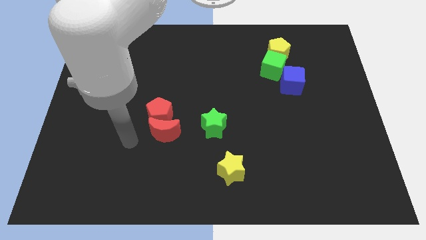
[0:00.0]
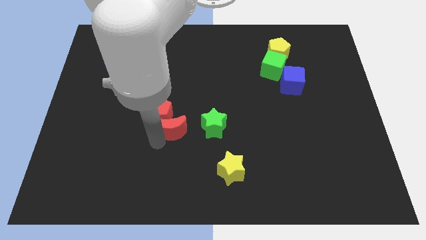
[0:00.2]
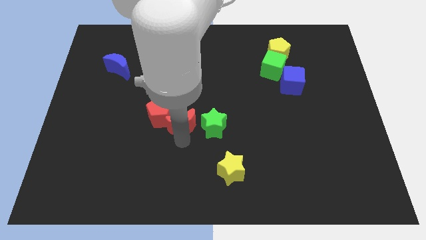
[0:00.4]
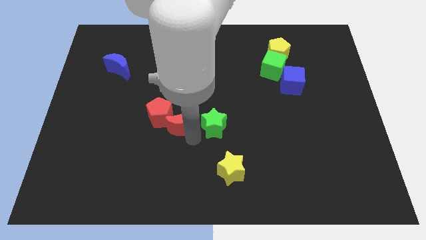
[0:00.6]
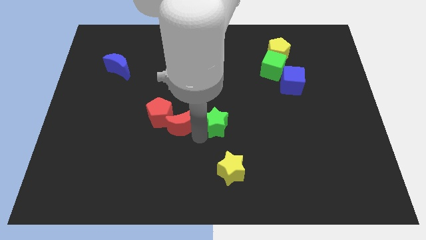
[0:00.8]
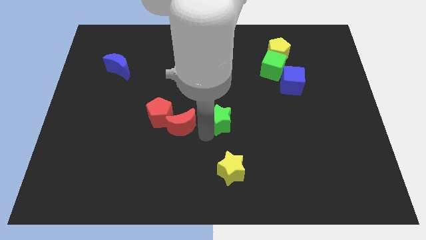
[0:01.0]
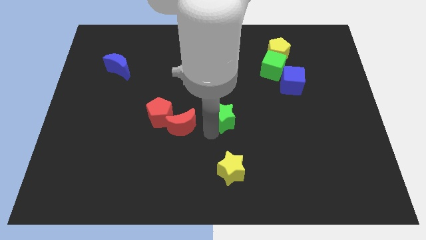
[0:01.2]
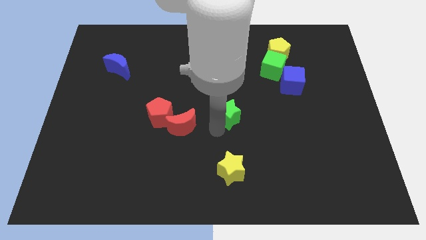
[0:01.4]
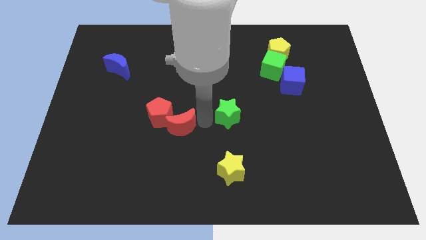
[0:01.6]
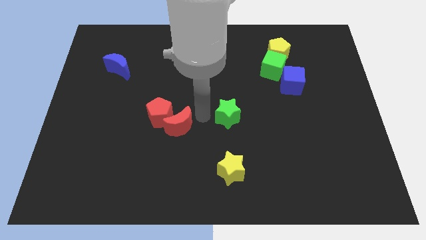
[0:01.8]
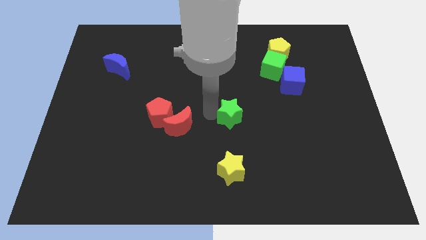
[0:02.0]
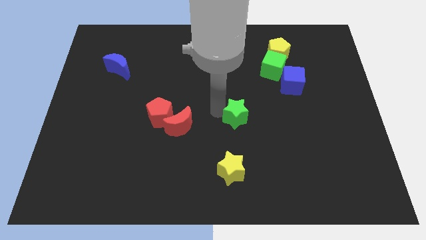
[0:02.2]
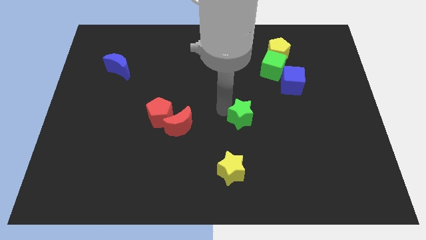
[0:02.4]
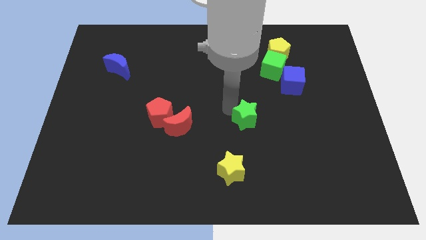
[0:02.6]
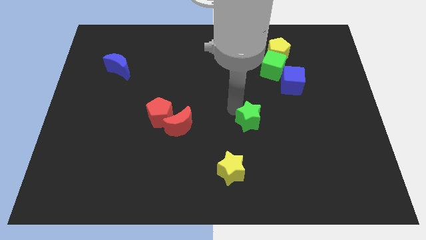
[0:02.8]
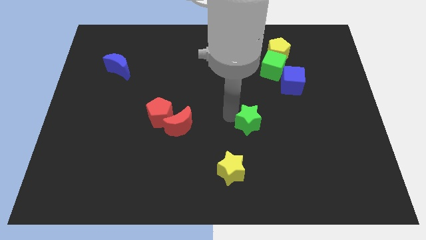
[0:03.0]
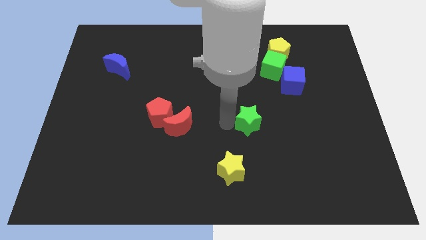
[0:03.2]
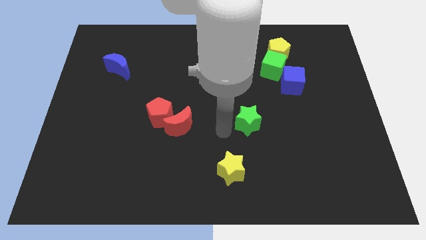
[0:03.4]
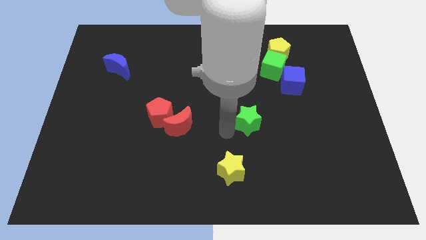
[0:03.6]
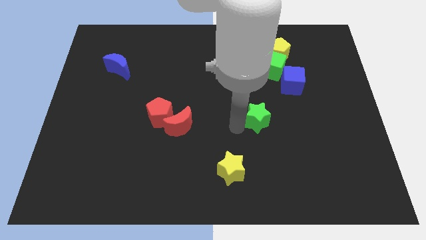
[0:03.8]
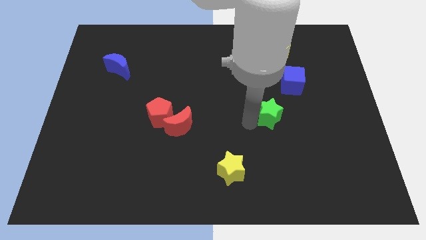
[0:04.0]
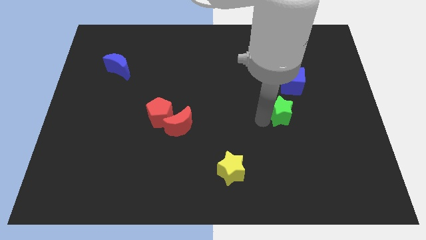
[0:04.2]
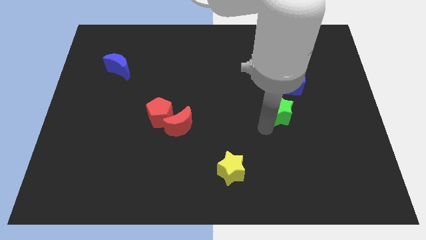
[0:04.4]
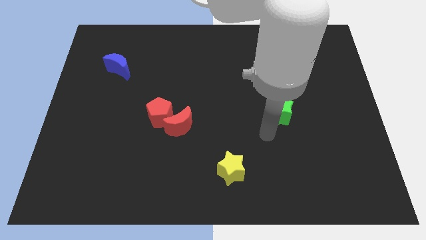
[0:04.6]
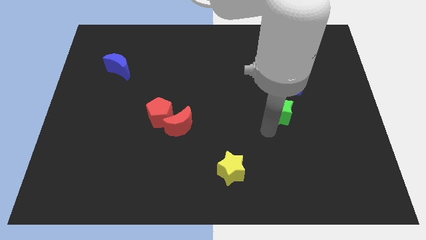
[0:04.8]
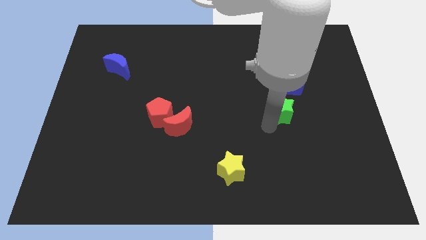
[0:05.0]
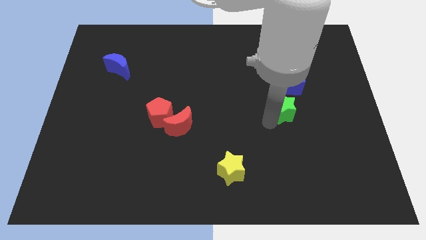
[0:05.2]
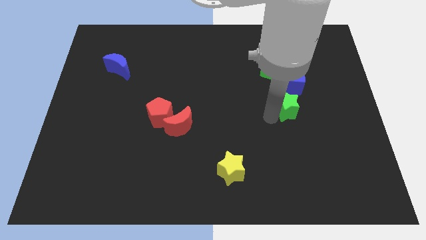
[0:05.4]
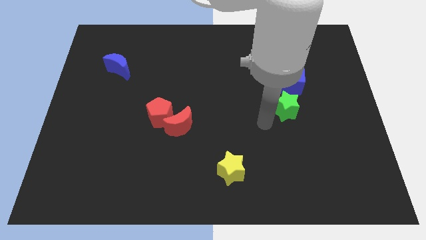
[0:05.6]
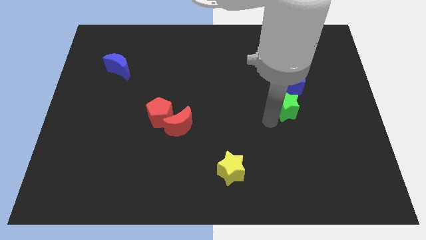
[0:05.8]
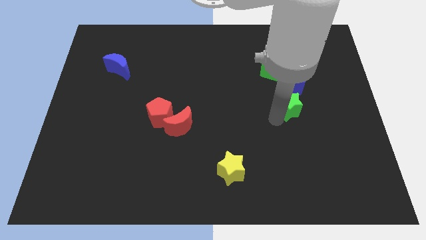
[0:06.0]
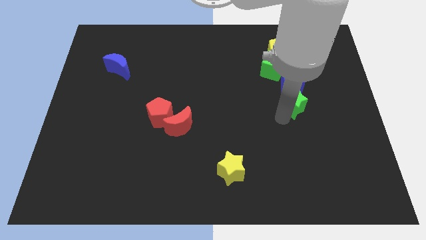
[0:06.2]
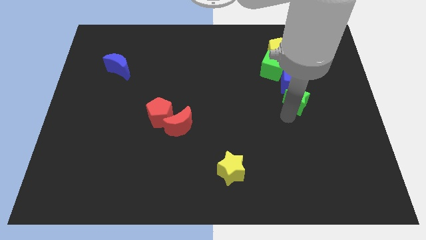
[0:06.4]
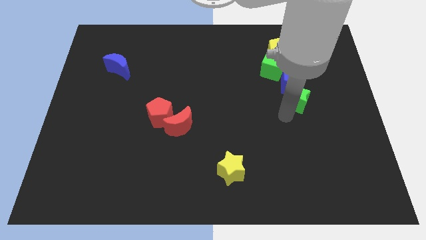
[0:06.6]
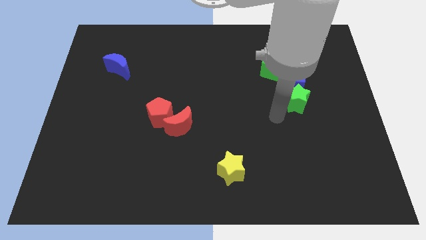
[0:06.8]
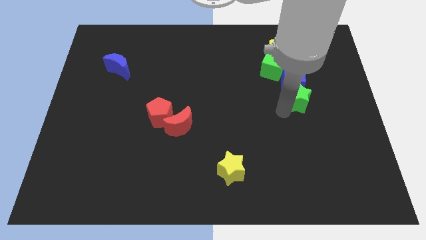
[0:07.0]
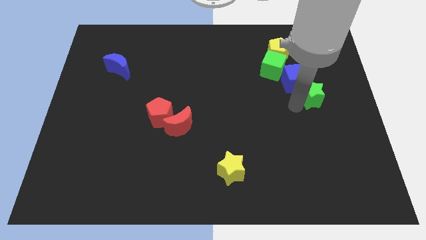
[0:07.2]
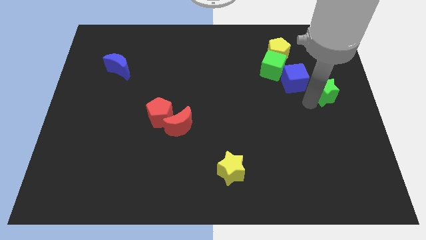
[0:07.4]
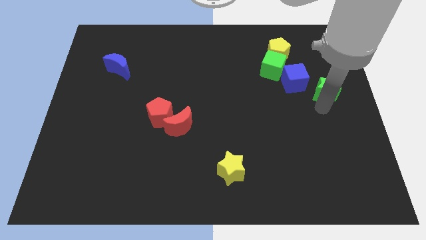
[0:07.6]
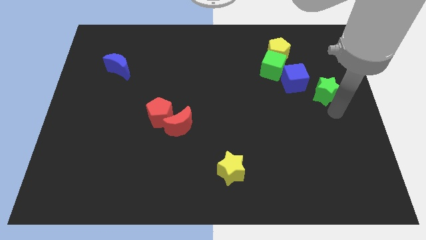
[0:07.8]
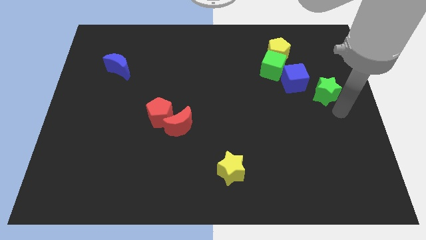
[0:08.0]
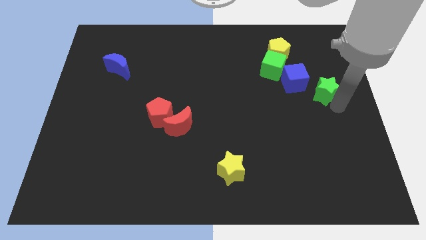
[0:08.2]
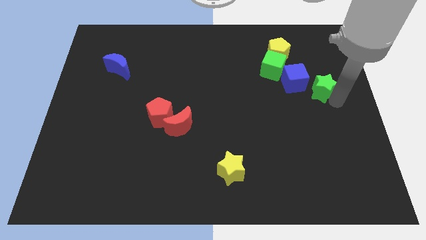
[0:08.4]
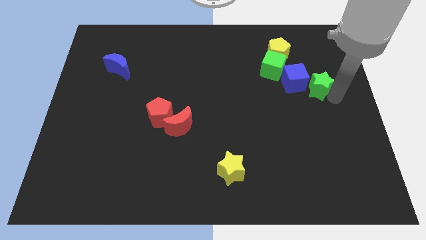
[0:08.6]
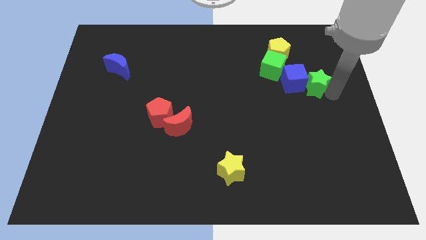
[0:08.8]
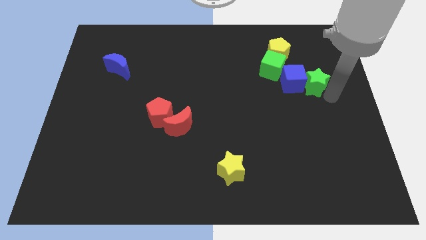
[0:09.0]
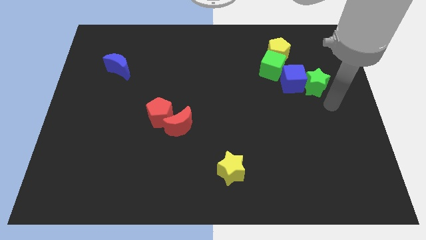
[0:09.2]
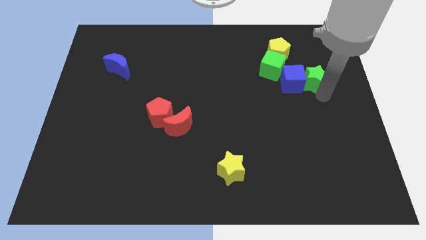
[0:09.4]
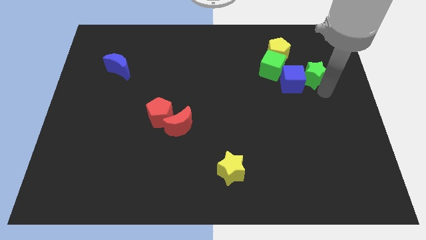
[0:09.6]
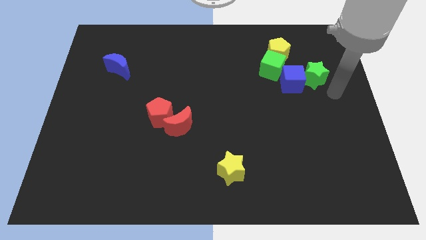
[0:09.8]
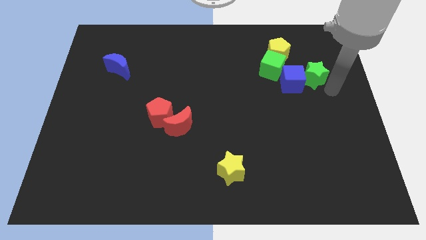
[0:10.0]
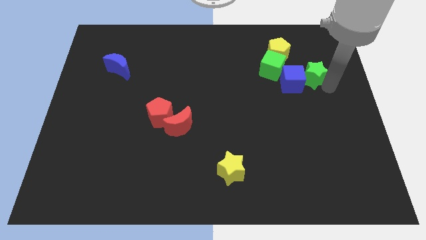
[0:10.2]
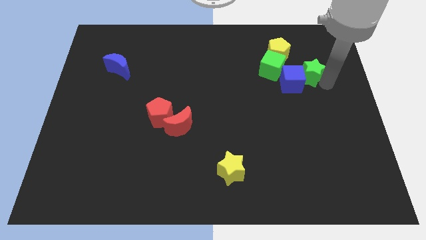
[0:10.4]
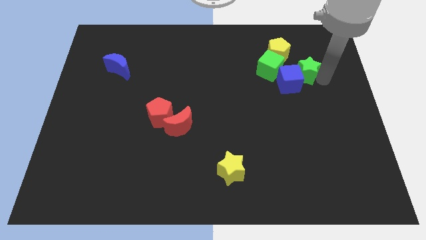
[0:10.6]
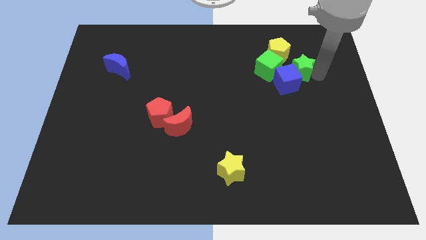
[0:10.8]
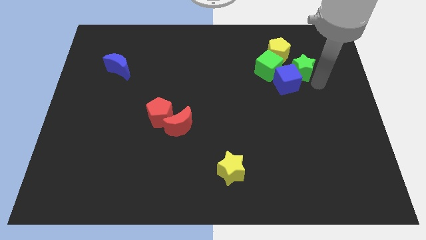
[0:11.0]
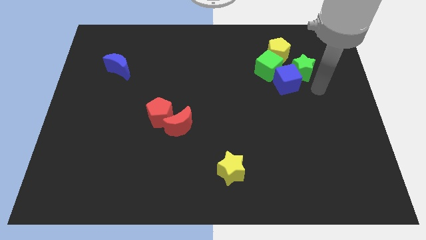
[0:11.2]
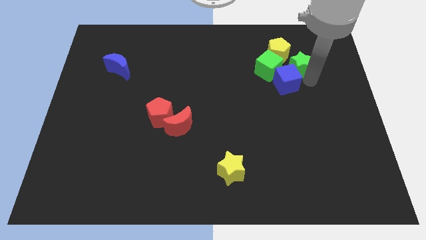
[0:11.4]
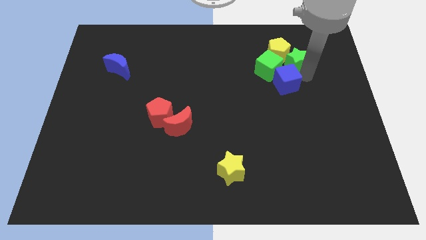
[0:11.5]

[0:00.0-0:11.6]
slide the green star diagonally up and to the right of the green cube
